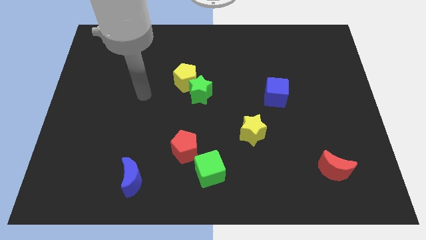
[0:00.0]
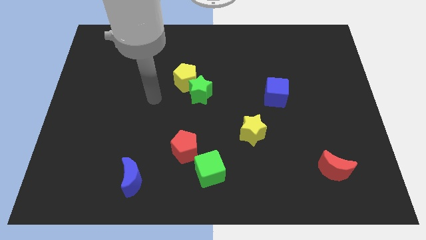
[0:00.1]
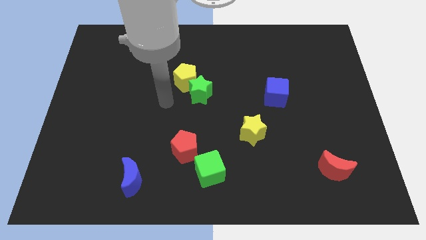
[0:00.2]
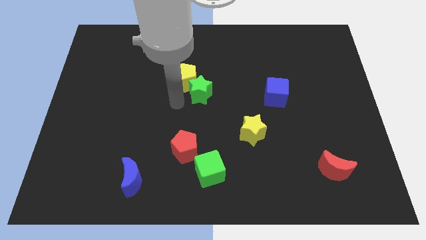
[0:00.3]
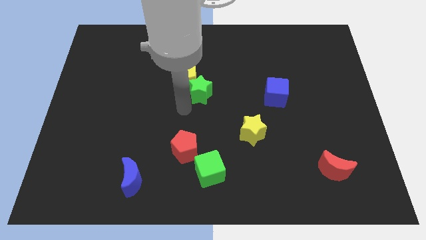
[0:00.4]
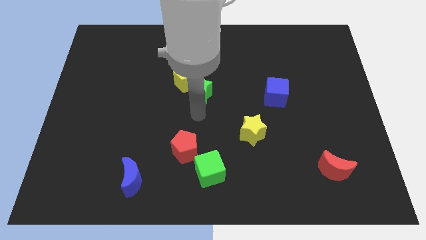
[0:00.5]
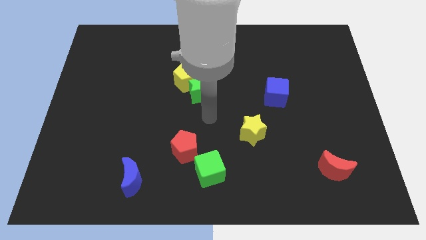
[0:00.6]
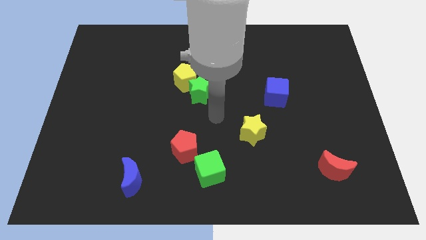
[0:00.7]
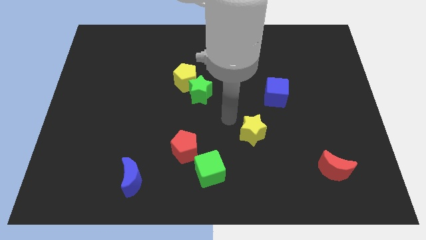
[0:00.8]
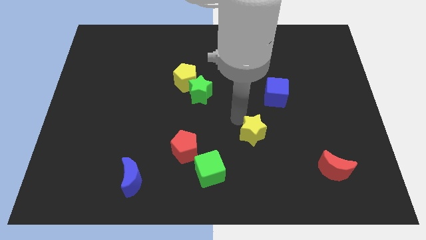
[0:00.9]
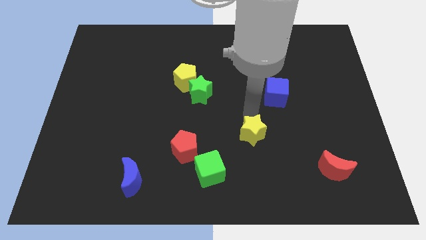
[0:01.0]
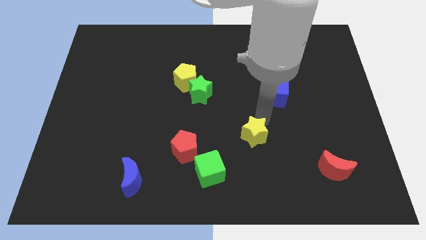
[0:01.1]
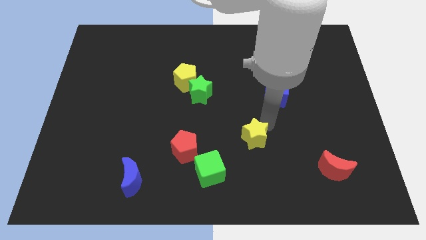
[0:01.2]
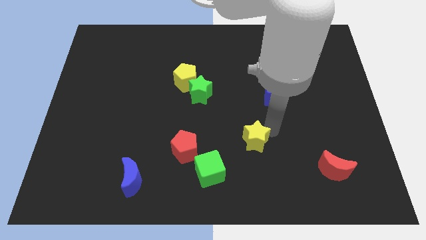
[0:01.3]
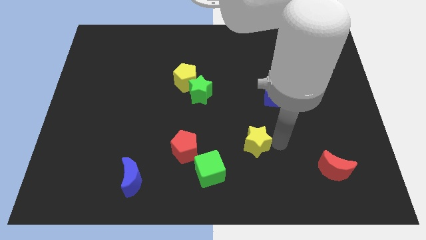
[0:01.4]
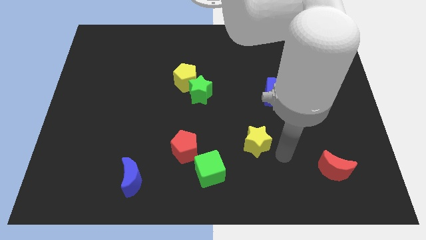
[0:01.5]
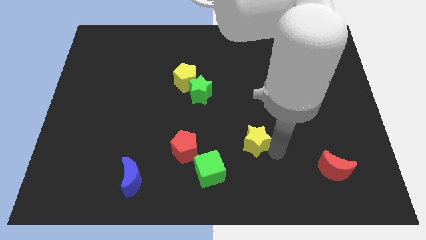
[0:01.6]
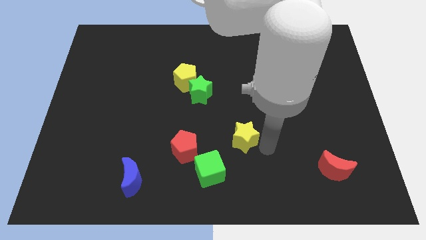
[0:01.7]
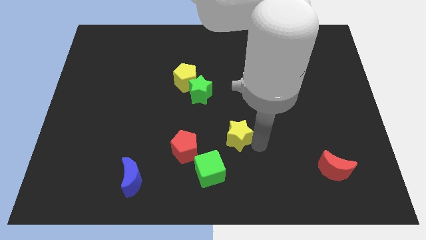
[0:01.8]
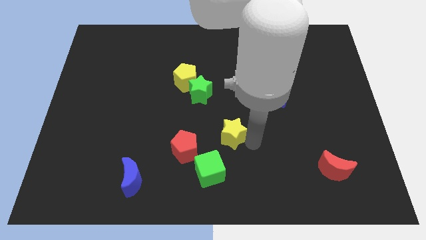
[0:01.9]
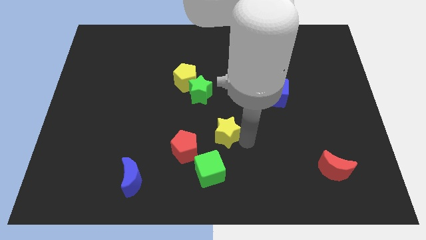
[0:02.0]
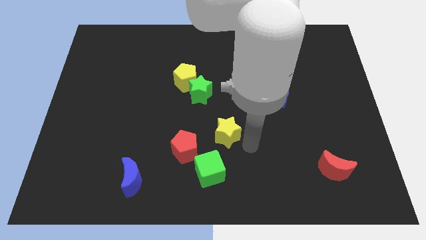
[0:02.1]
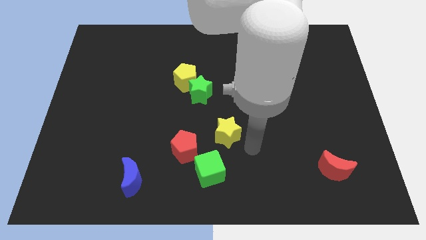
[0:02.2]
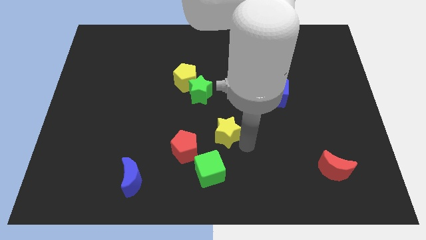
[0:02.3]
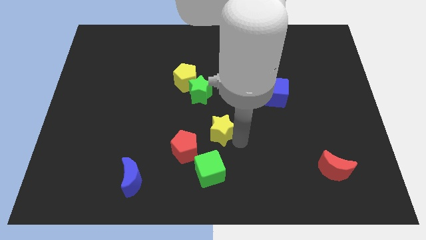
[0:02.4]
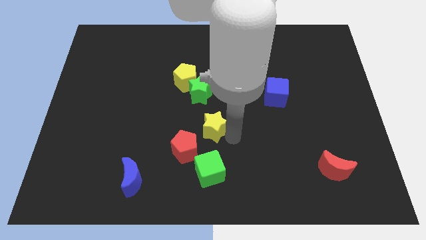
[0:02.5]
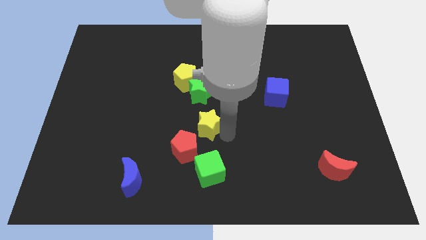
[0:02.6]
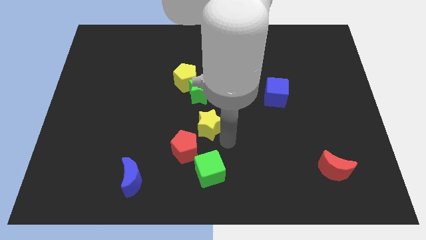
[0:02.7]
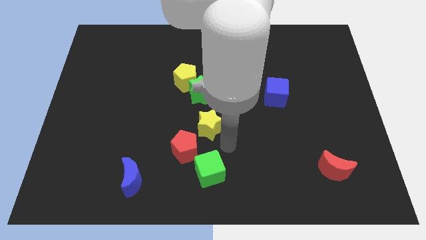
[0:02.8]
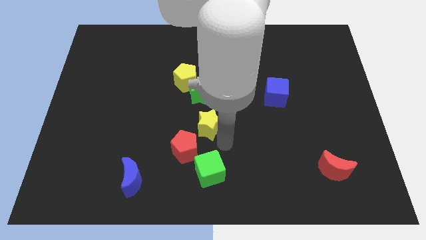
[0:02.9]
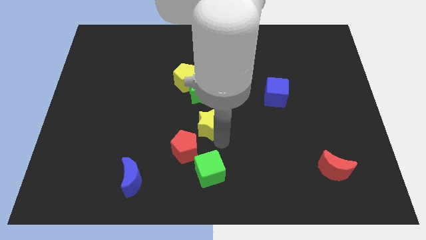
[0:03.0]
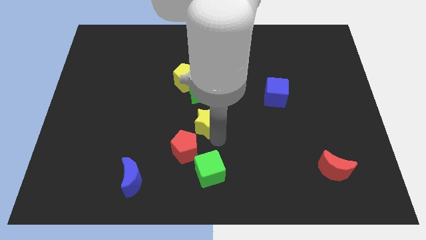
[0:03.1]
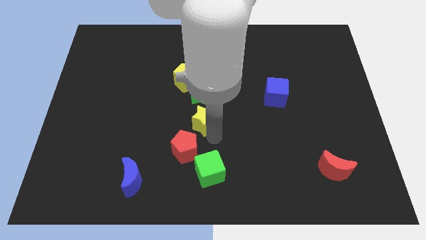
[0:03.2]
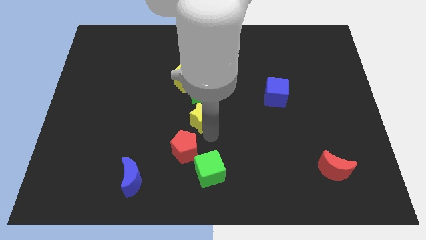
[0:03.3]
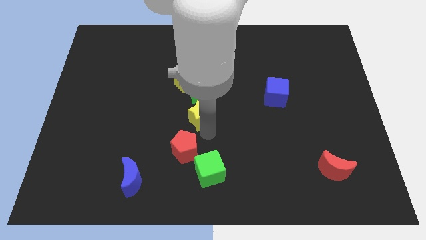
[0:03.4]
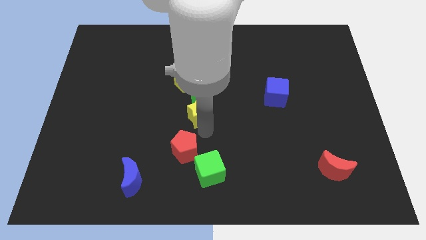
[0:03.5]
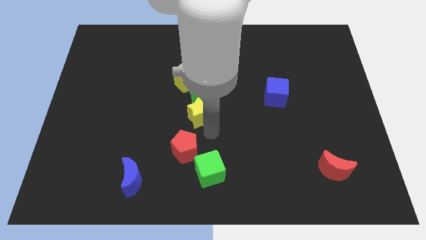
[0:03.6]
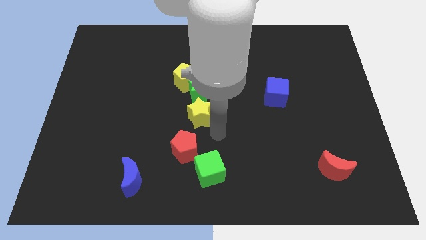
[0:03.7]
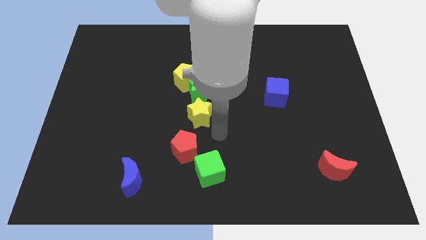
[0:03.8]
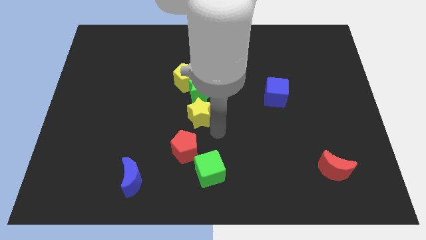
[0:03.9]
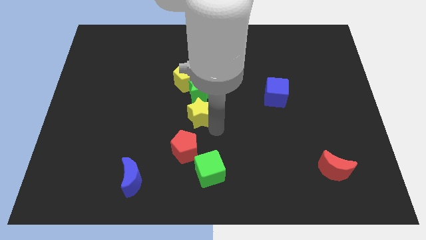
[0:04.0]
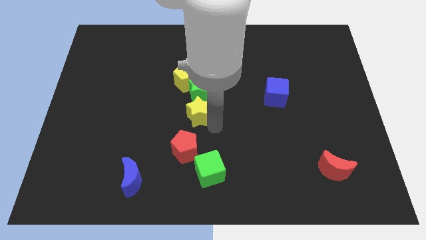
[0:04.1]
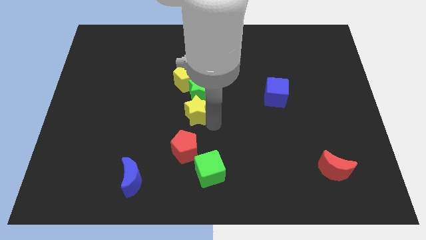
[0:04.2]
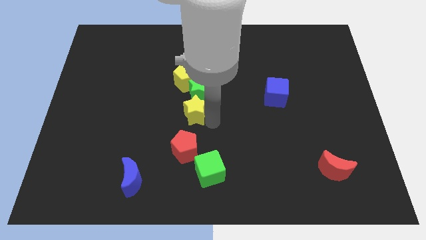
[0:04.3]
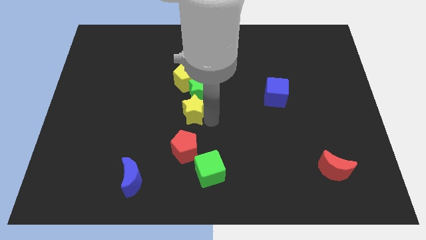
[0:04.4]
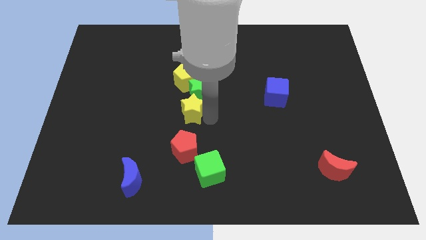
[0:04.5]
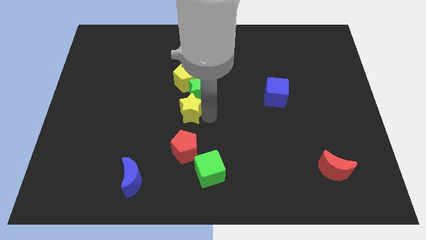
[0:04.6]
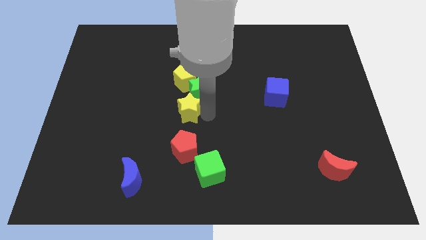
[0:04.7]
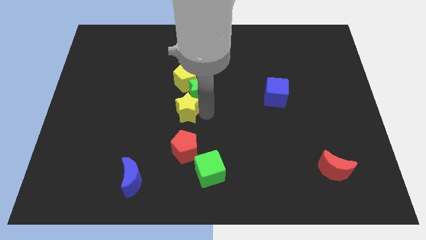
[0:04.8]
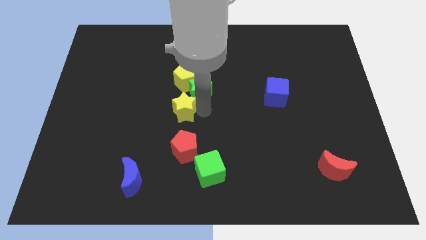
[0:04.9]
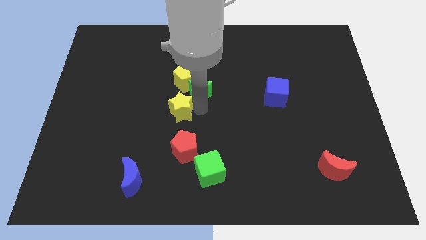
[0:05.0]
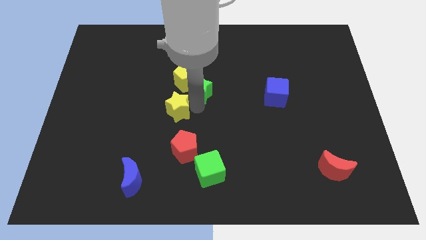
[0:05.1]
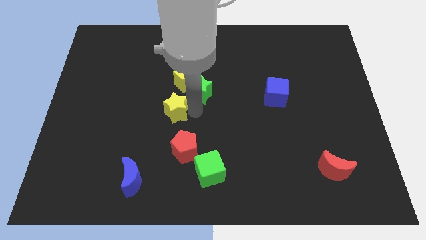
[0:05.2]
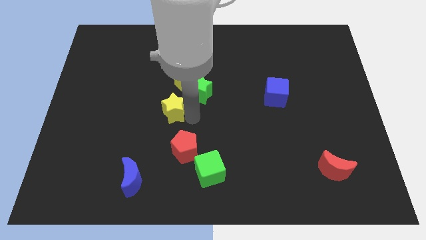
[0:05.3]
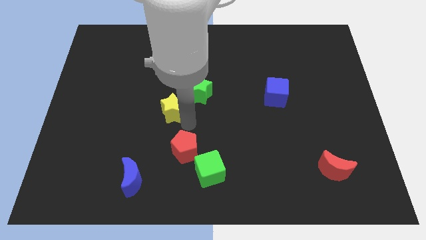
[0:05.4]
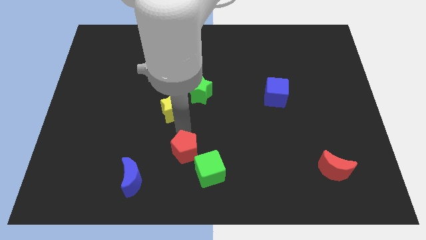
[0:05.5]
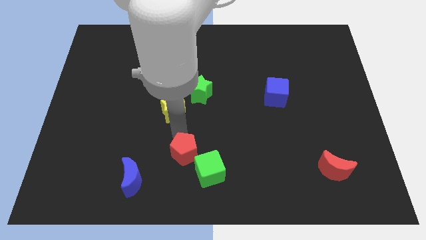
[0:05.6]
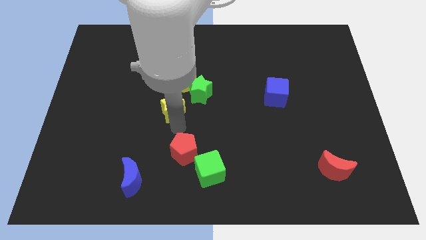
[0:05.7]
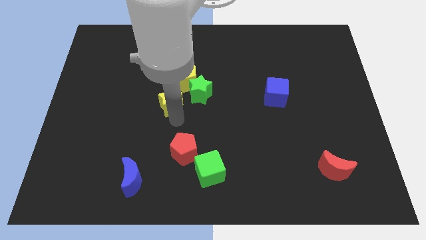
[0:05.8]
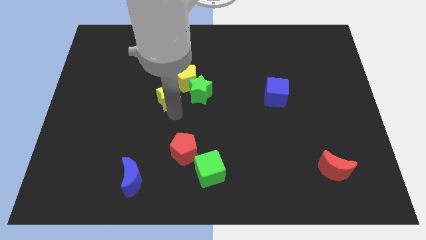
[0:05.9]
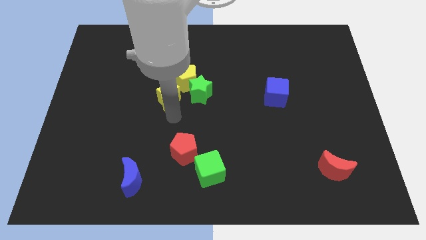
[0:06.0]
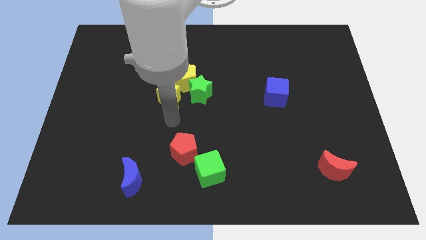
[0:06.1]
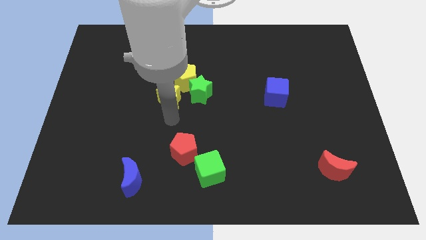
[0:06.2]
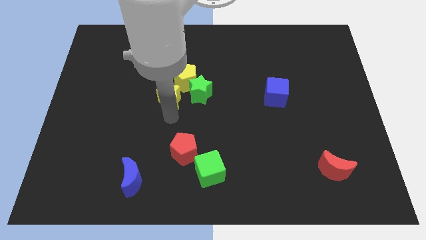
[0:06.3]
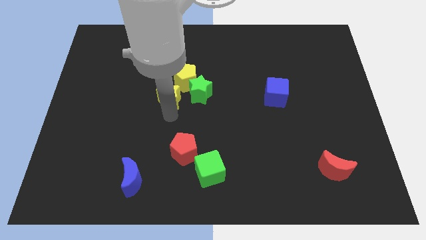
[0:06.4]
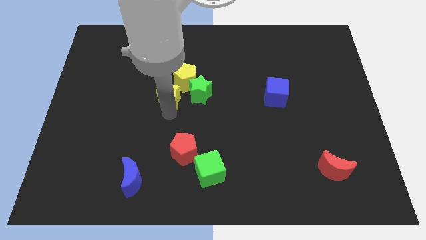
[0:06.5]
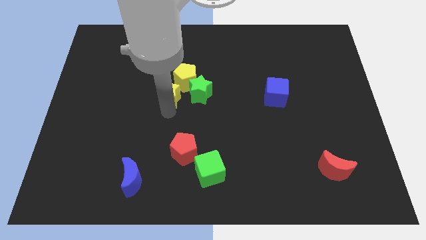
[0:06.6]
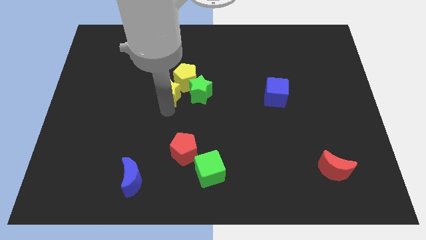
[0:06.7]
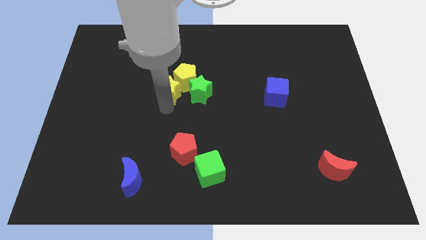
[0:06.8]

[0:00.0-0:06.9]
put the yellow star diagonally up and to the left of the green star

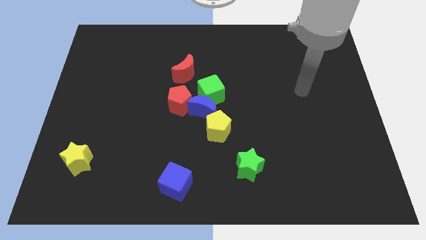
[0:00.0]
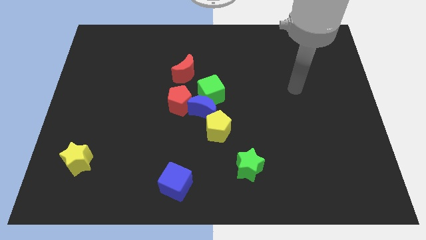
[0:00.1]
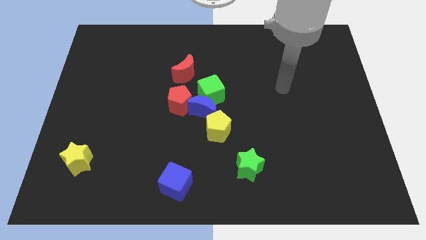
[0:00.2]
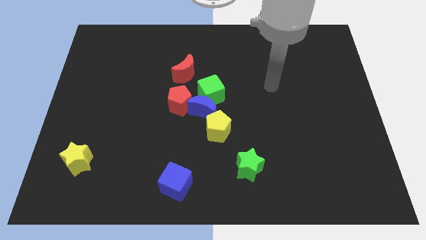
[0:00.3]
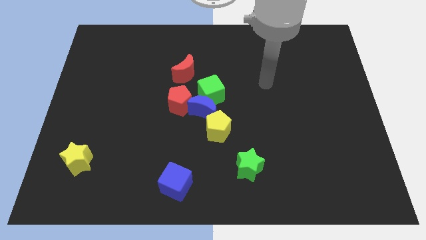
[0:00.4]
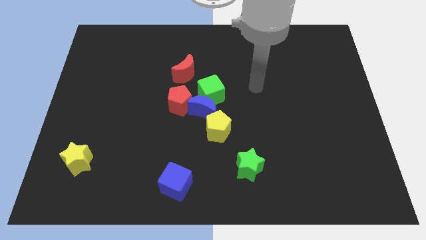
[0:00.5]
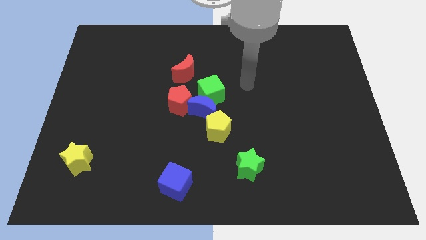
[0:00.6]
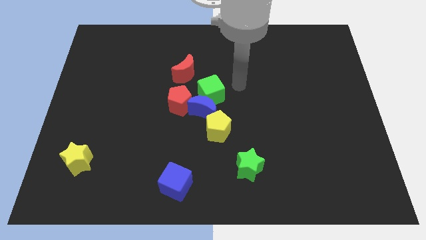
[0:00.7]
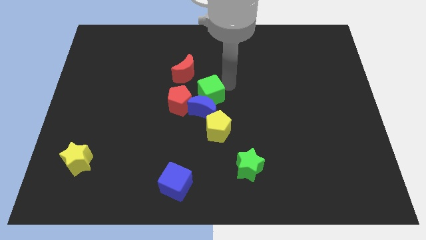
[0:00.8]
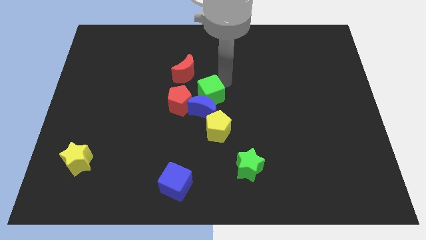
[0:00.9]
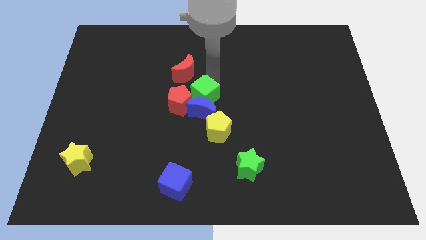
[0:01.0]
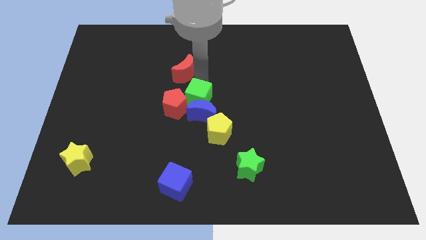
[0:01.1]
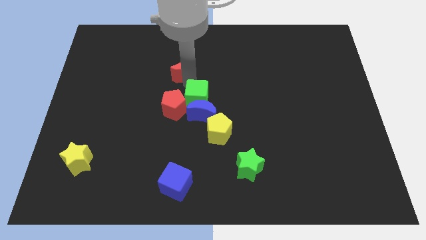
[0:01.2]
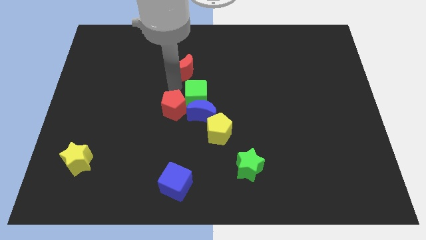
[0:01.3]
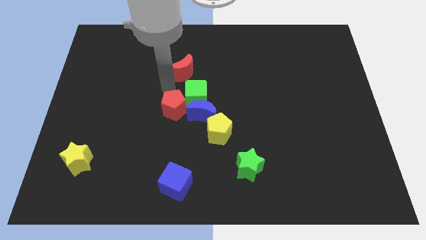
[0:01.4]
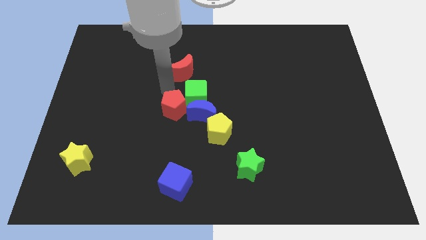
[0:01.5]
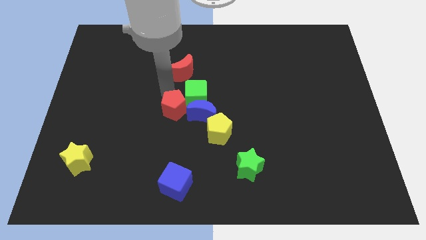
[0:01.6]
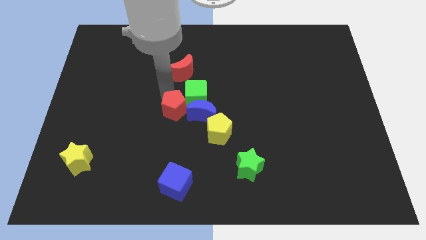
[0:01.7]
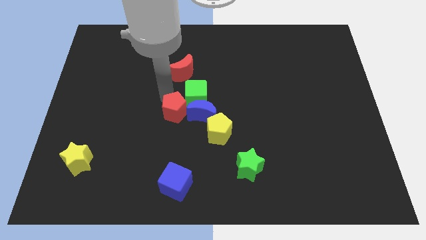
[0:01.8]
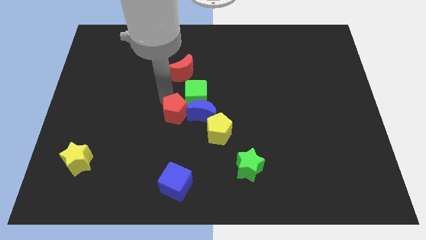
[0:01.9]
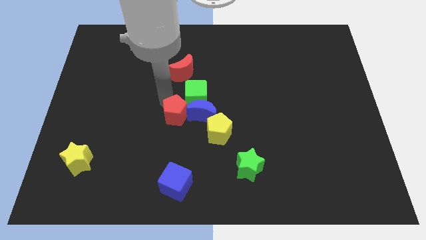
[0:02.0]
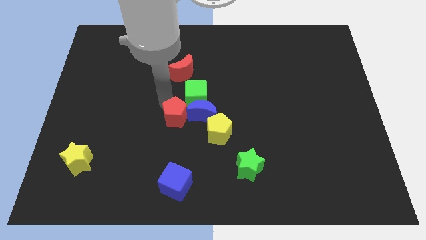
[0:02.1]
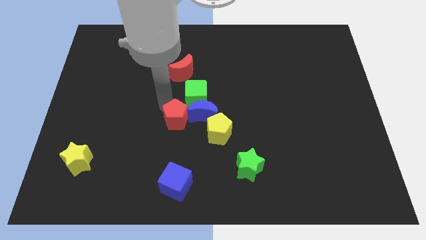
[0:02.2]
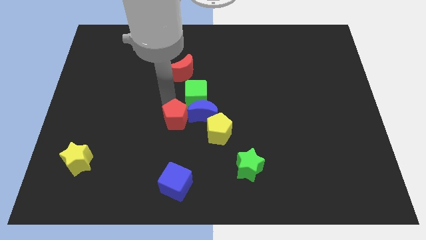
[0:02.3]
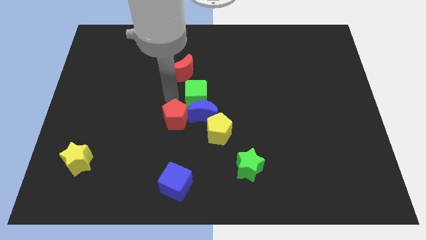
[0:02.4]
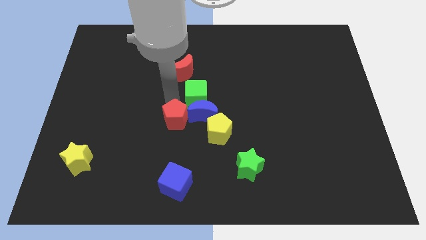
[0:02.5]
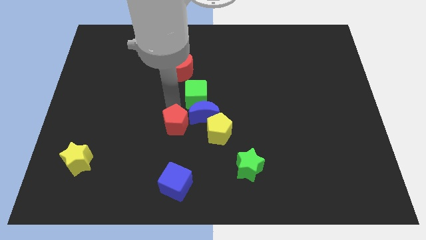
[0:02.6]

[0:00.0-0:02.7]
slide the red pentagon above the blue cube
